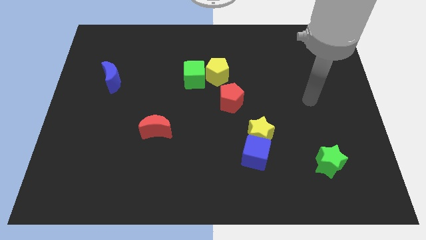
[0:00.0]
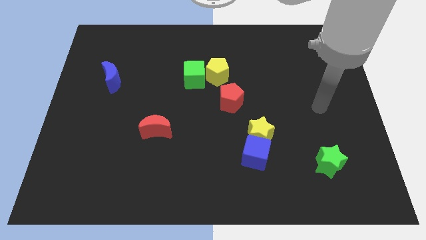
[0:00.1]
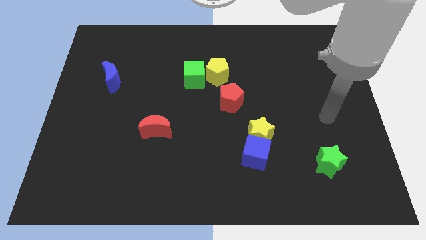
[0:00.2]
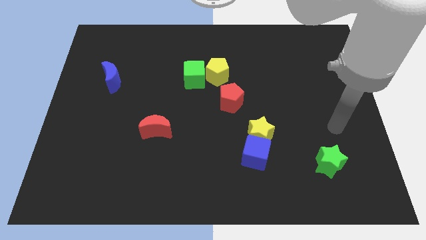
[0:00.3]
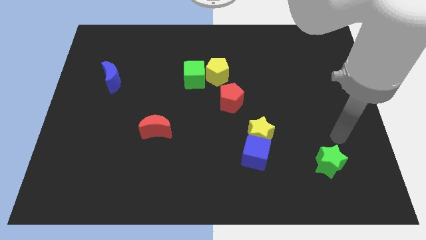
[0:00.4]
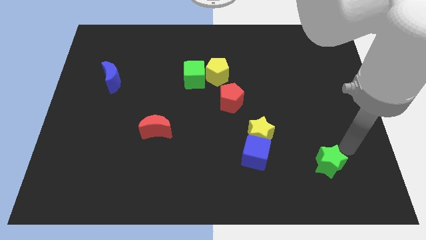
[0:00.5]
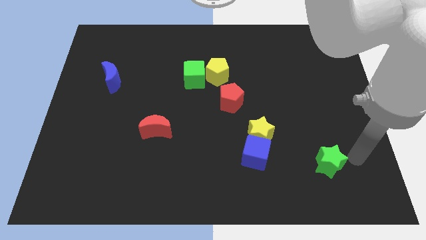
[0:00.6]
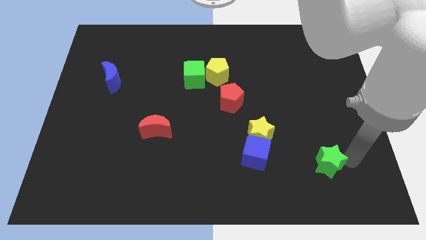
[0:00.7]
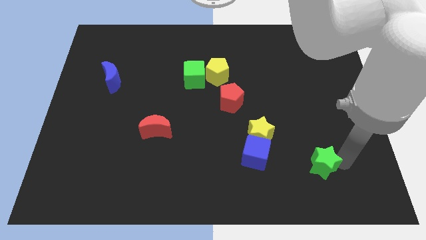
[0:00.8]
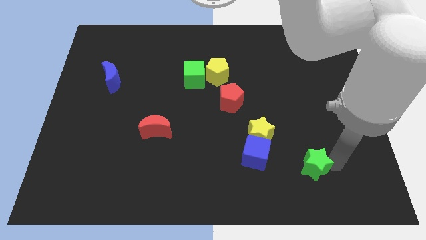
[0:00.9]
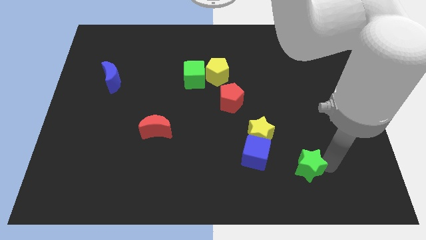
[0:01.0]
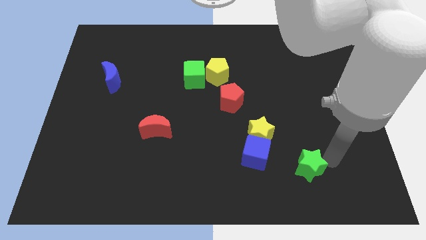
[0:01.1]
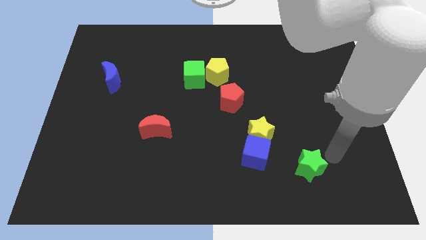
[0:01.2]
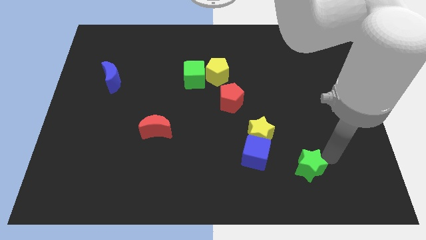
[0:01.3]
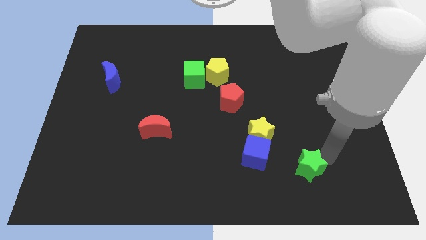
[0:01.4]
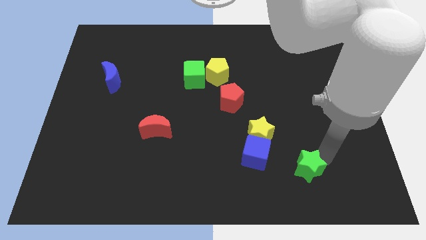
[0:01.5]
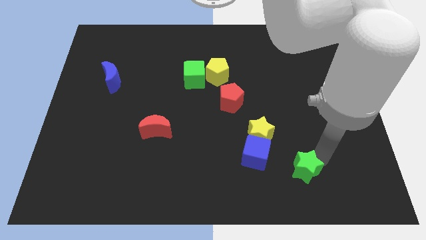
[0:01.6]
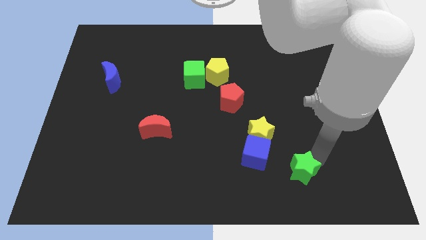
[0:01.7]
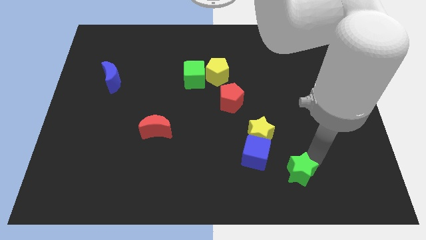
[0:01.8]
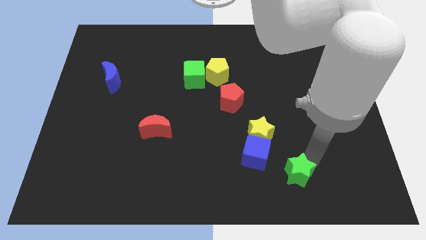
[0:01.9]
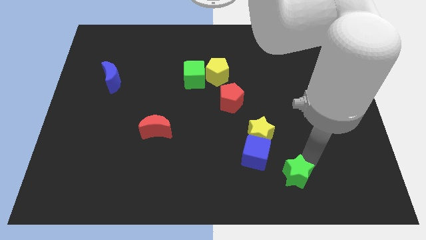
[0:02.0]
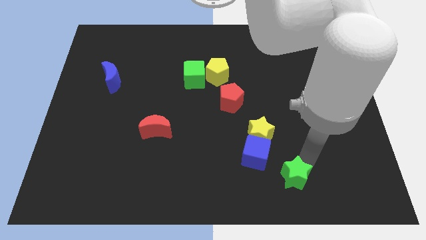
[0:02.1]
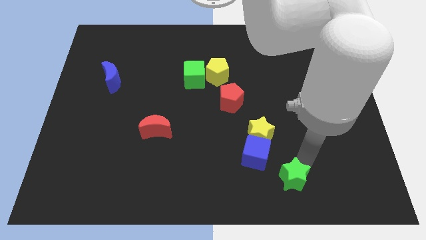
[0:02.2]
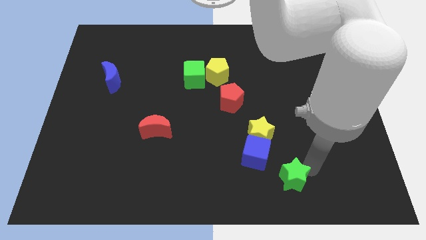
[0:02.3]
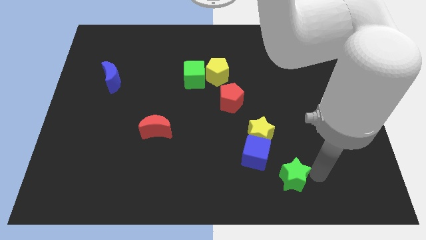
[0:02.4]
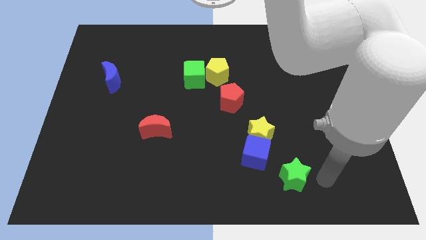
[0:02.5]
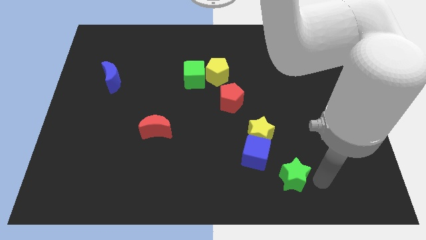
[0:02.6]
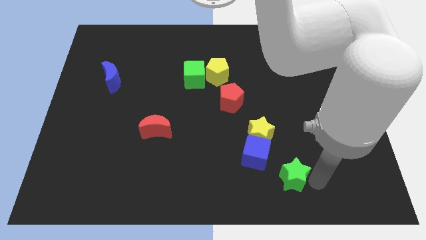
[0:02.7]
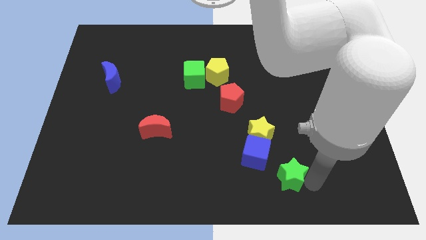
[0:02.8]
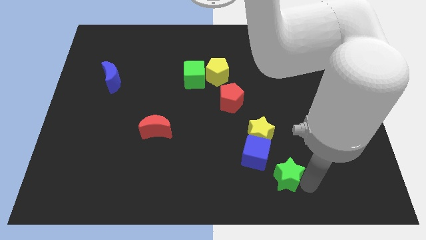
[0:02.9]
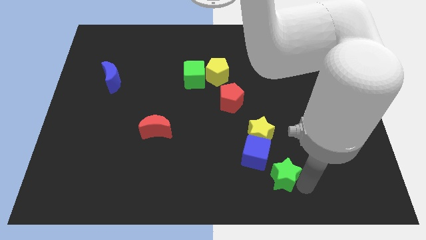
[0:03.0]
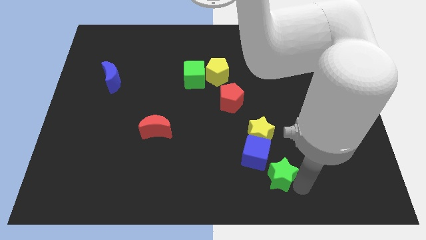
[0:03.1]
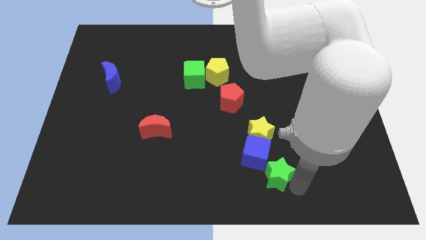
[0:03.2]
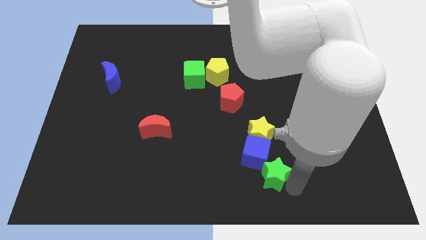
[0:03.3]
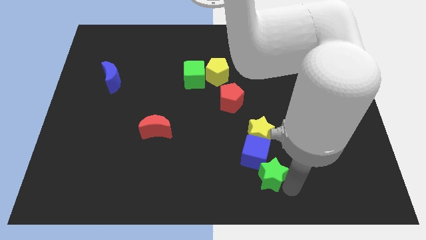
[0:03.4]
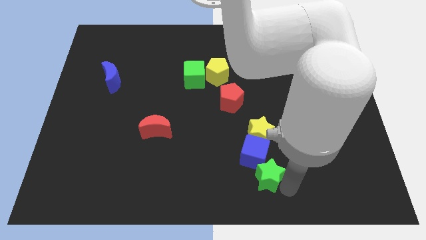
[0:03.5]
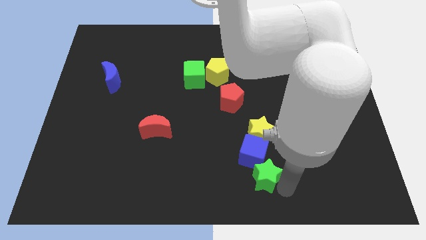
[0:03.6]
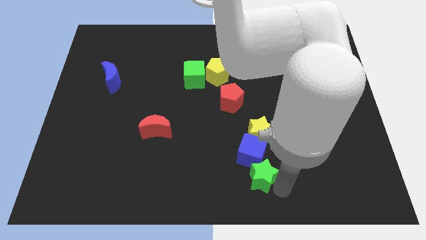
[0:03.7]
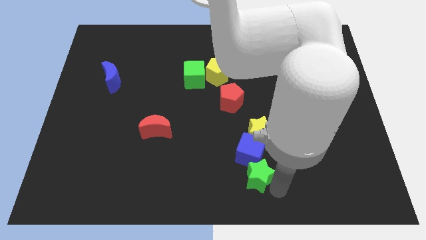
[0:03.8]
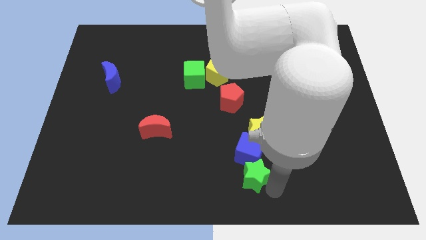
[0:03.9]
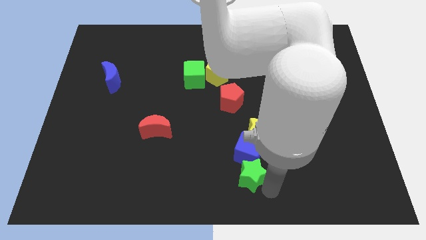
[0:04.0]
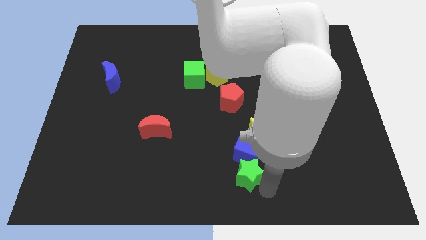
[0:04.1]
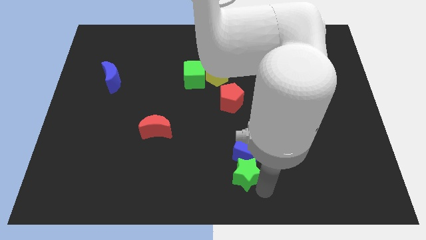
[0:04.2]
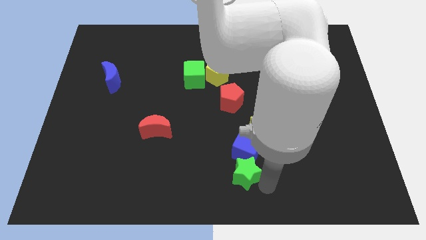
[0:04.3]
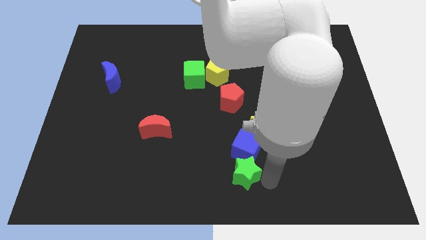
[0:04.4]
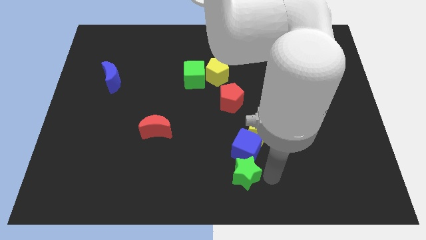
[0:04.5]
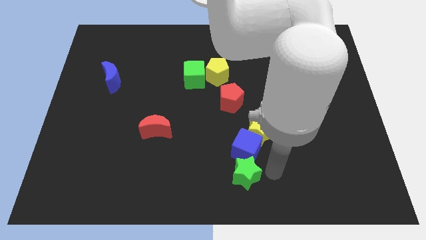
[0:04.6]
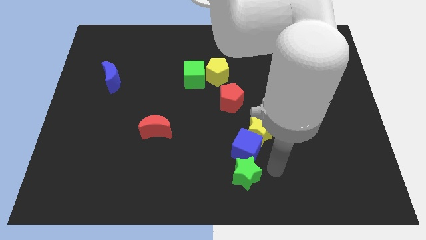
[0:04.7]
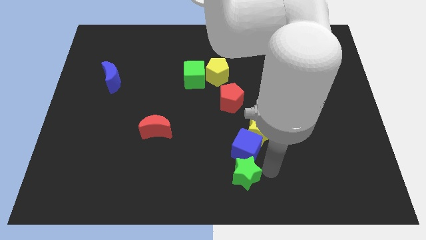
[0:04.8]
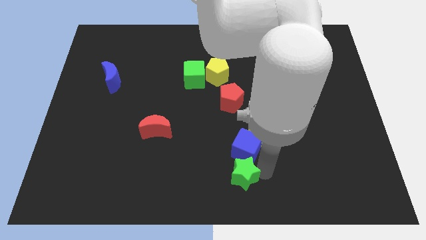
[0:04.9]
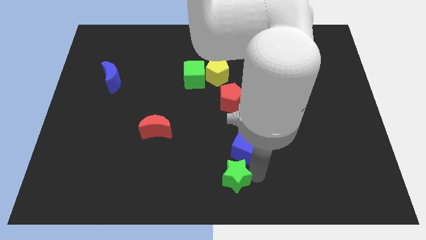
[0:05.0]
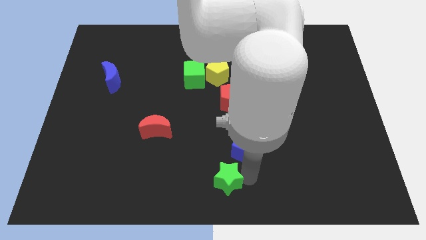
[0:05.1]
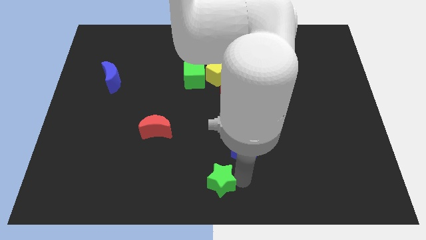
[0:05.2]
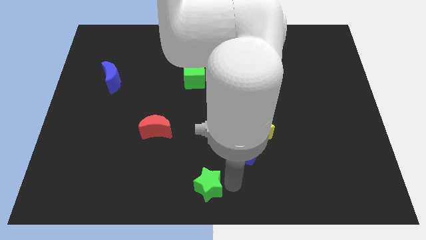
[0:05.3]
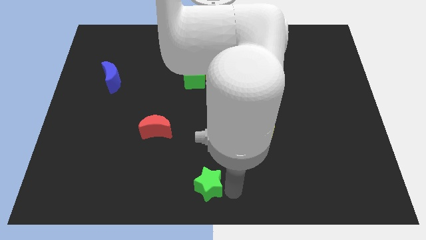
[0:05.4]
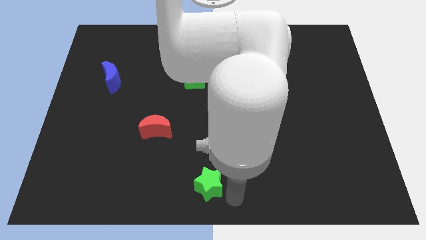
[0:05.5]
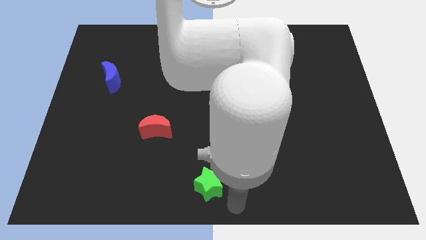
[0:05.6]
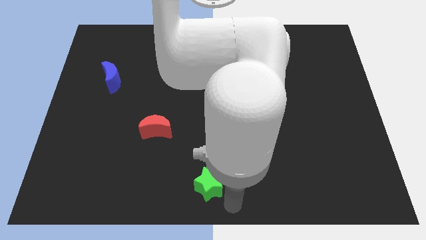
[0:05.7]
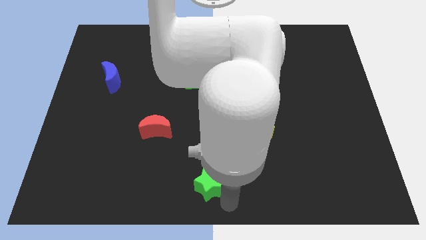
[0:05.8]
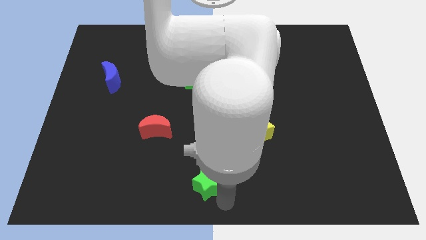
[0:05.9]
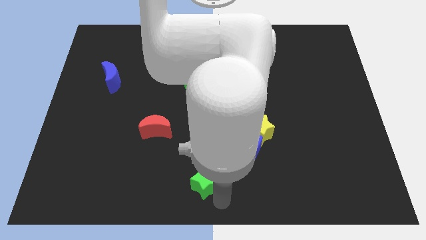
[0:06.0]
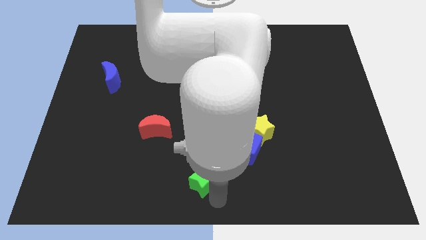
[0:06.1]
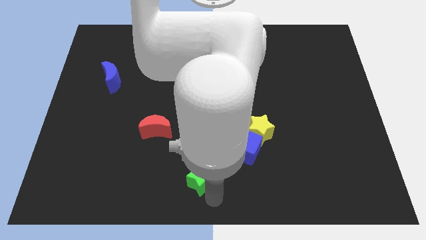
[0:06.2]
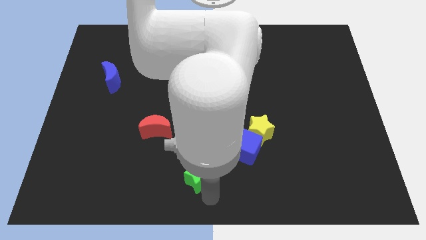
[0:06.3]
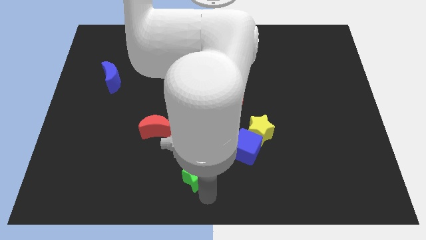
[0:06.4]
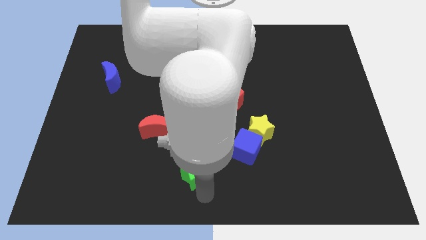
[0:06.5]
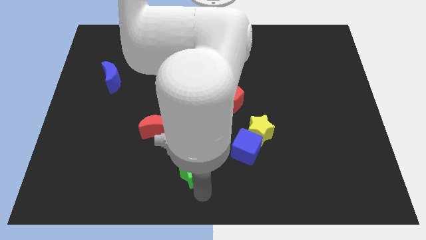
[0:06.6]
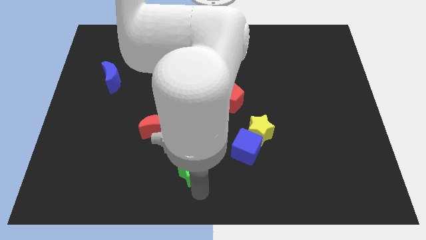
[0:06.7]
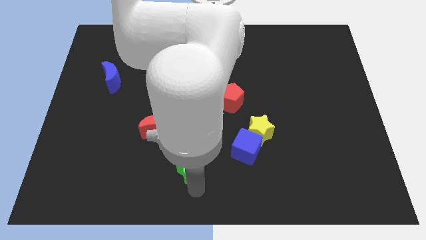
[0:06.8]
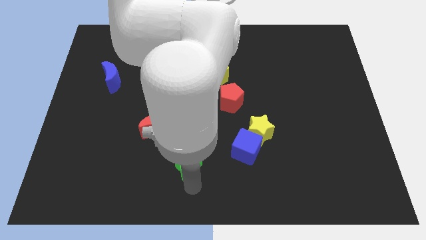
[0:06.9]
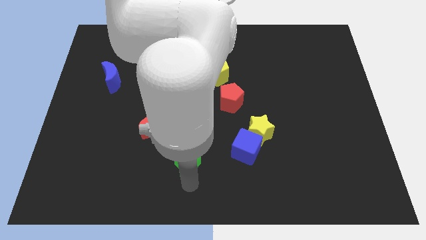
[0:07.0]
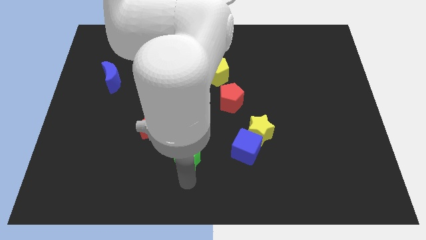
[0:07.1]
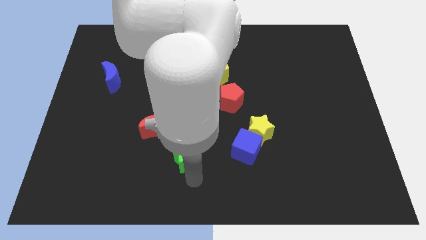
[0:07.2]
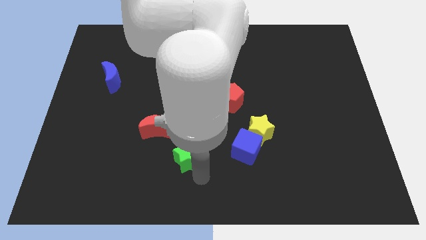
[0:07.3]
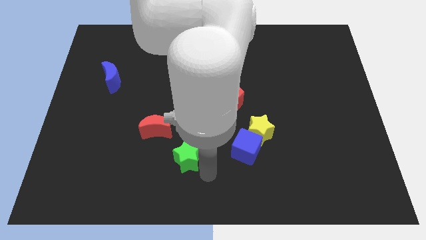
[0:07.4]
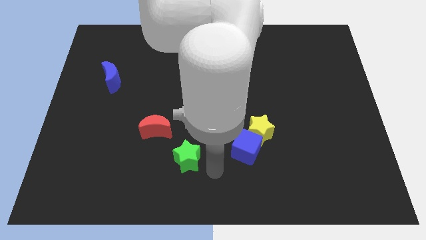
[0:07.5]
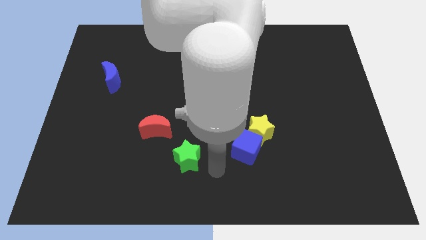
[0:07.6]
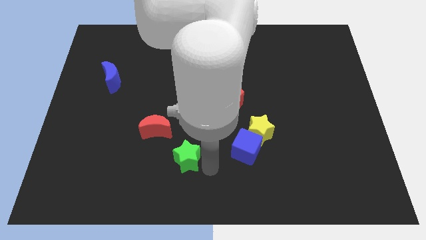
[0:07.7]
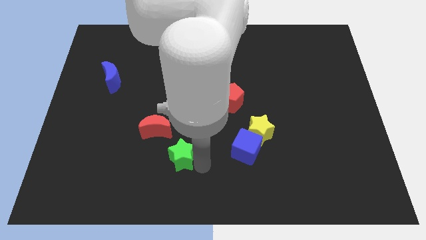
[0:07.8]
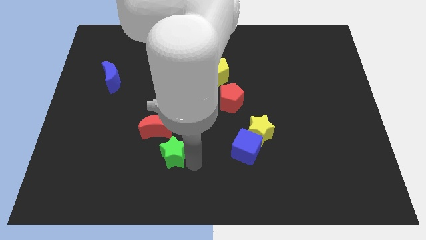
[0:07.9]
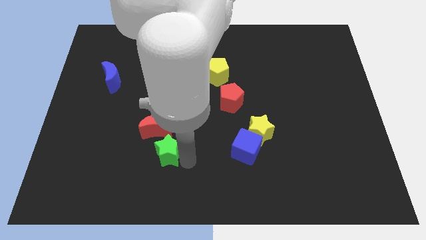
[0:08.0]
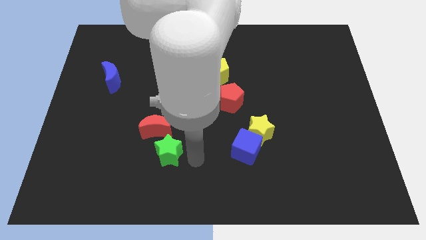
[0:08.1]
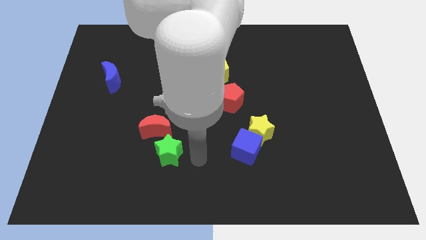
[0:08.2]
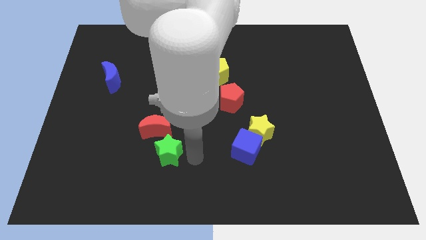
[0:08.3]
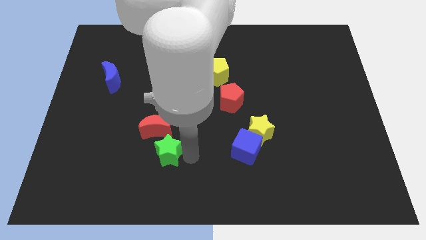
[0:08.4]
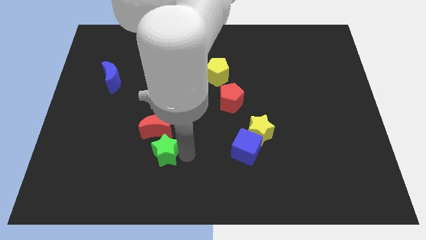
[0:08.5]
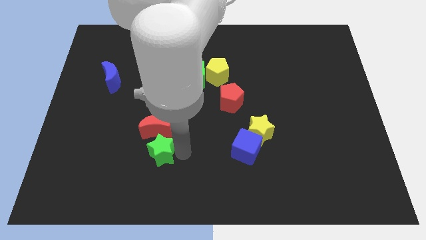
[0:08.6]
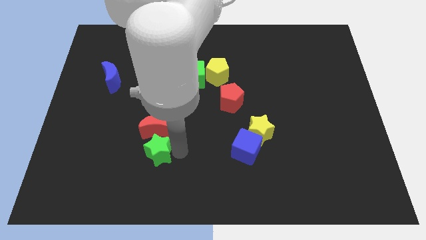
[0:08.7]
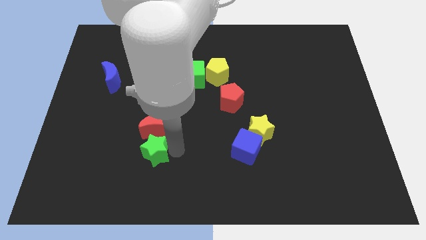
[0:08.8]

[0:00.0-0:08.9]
slide the green star to the bottom left side of the red moon
